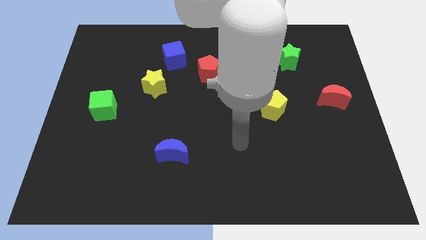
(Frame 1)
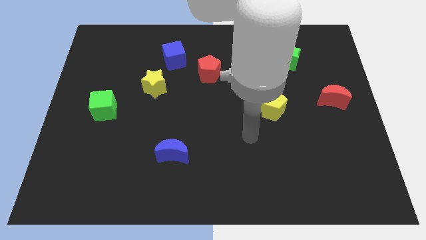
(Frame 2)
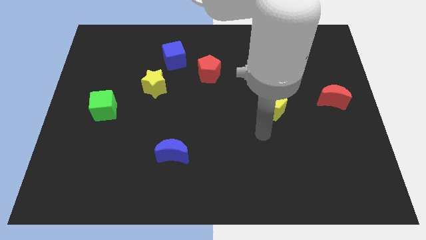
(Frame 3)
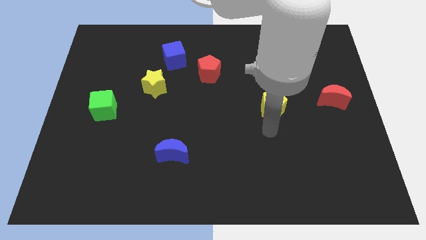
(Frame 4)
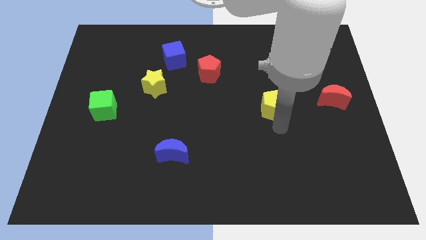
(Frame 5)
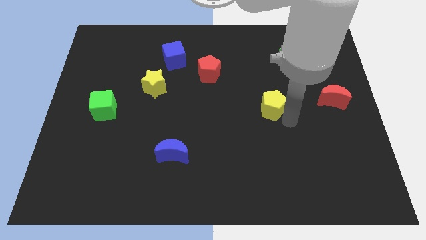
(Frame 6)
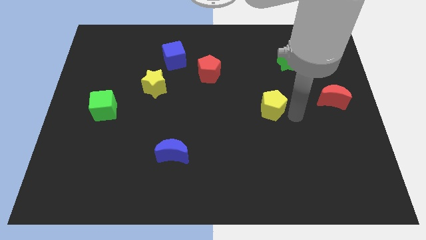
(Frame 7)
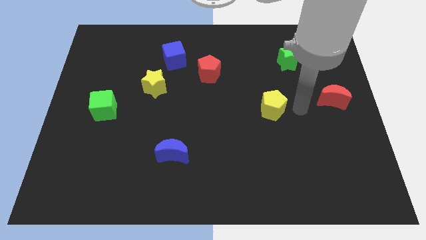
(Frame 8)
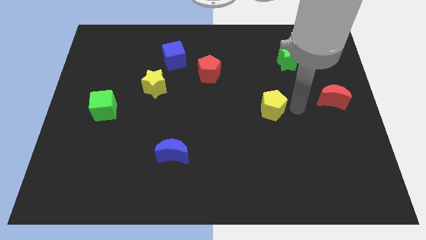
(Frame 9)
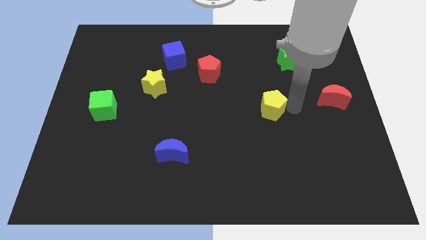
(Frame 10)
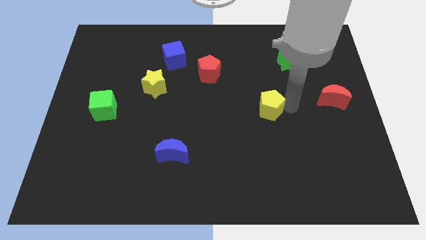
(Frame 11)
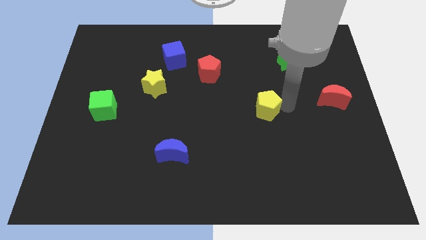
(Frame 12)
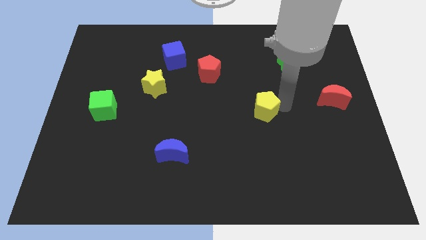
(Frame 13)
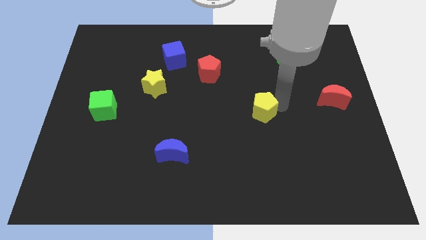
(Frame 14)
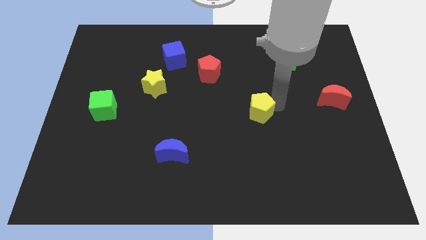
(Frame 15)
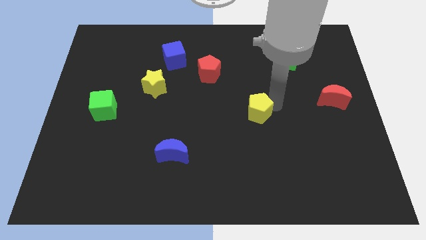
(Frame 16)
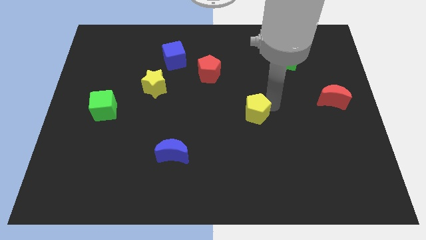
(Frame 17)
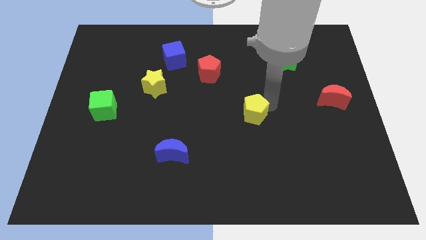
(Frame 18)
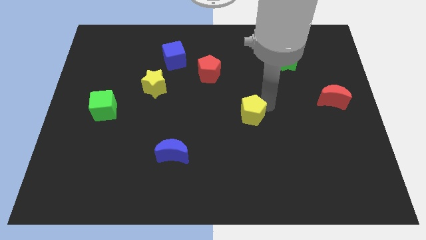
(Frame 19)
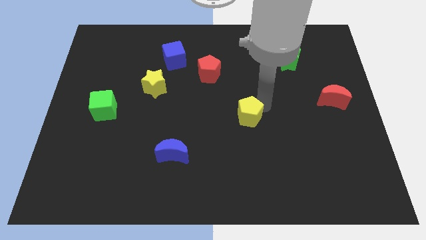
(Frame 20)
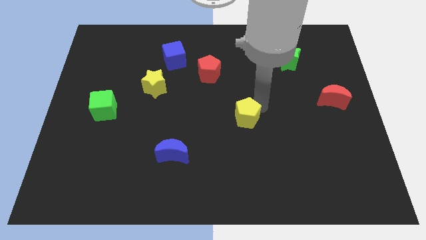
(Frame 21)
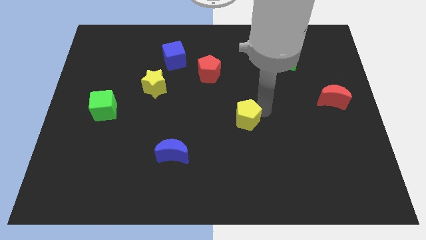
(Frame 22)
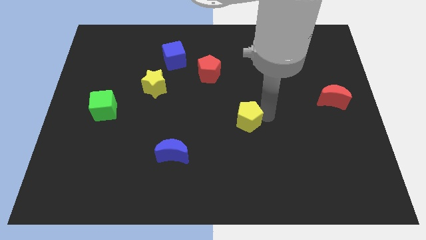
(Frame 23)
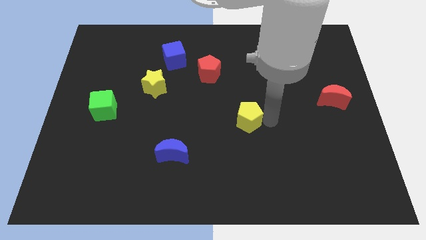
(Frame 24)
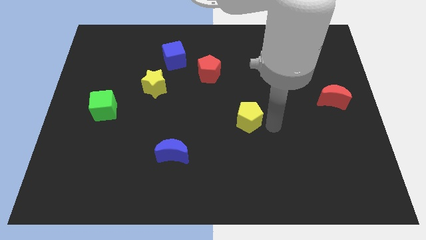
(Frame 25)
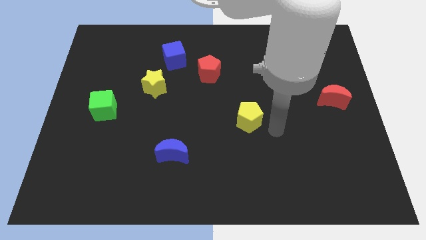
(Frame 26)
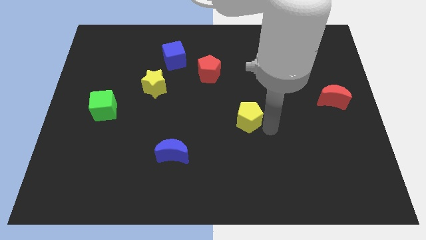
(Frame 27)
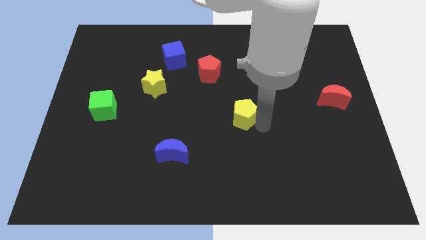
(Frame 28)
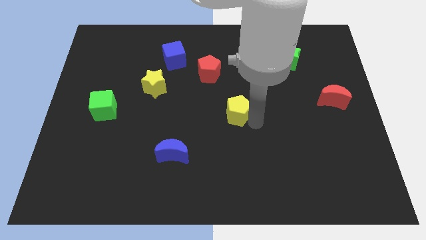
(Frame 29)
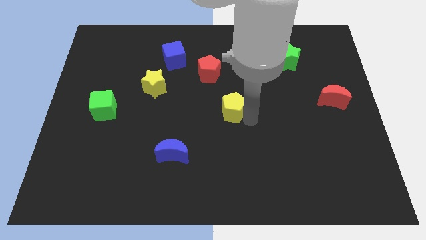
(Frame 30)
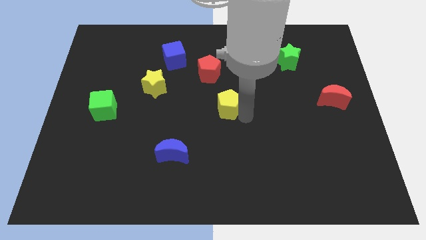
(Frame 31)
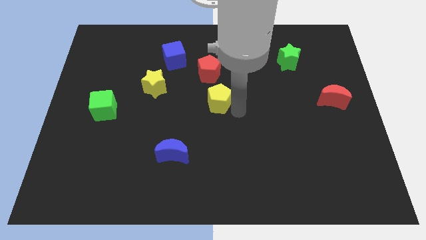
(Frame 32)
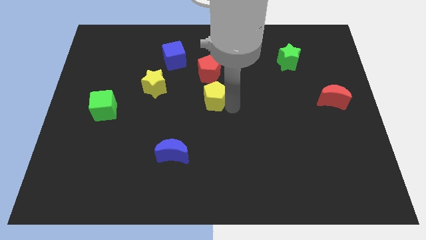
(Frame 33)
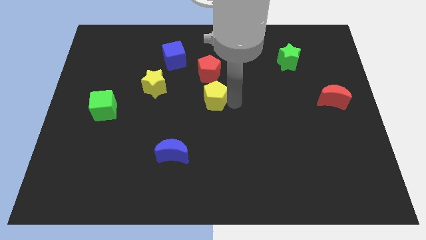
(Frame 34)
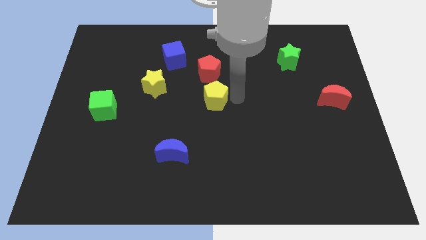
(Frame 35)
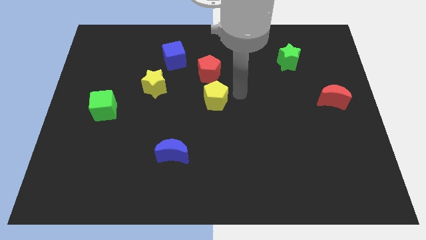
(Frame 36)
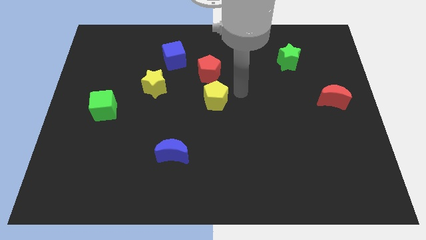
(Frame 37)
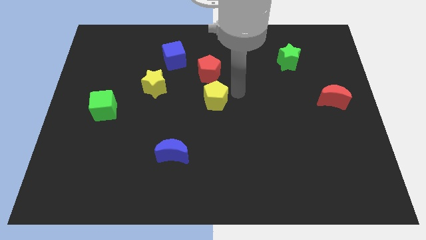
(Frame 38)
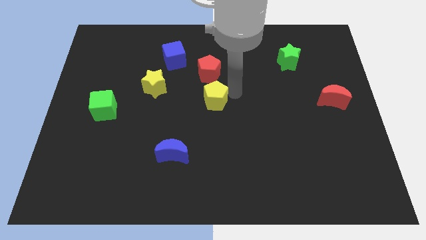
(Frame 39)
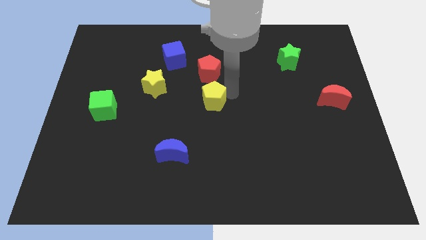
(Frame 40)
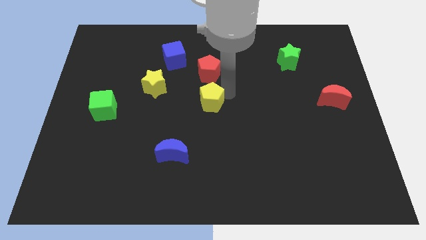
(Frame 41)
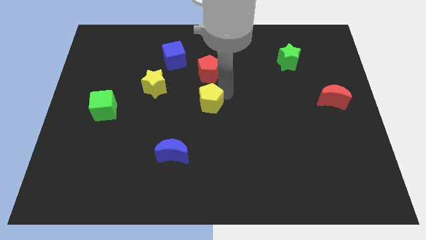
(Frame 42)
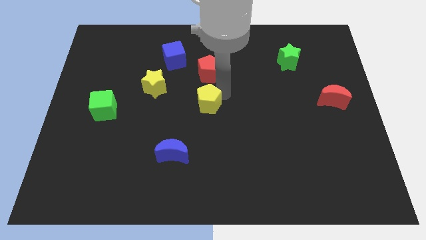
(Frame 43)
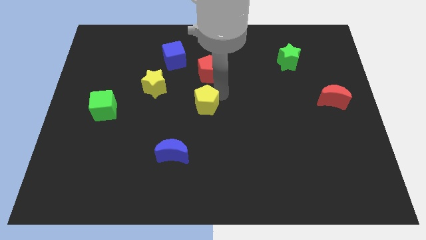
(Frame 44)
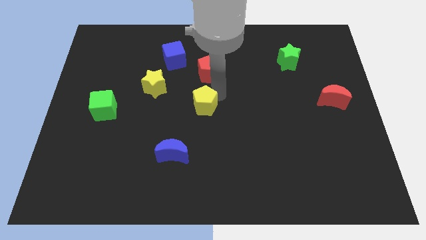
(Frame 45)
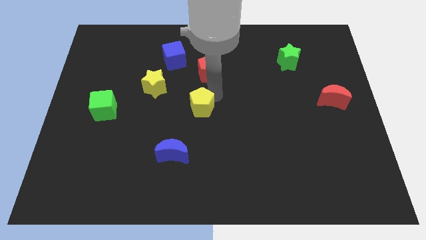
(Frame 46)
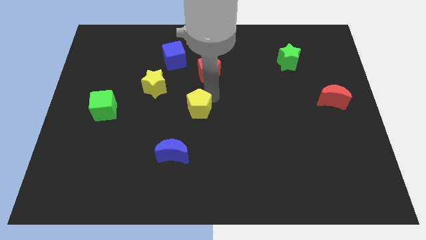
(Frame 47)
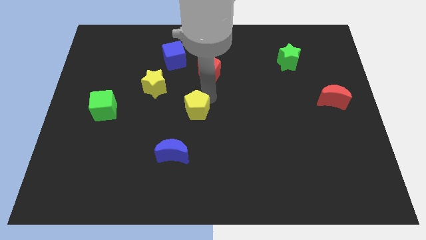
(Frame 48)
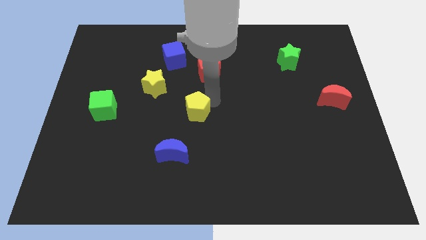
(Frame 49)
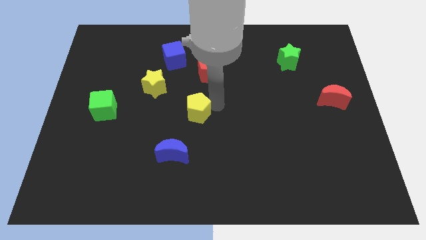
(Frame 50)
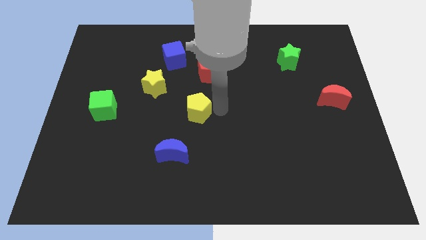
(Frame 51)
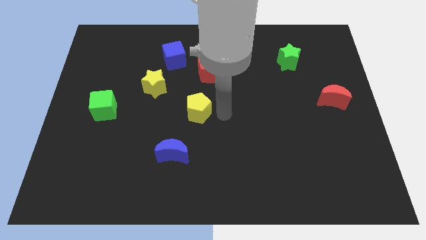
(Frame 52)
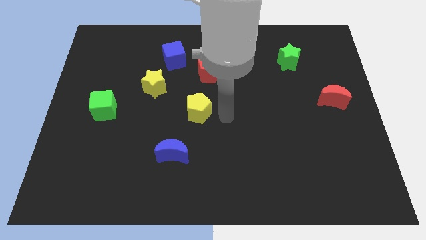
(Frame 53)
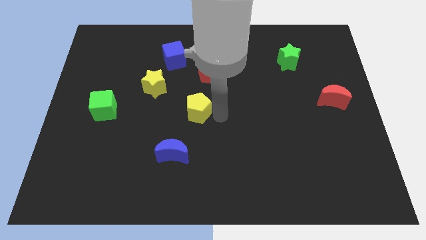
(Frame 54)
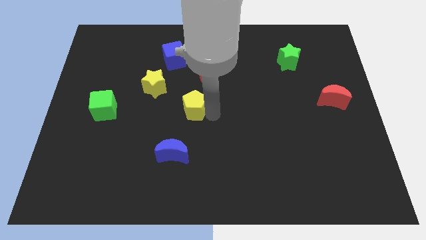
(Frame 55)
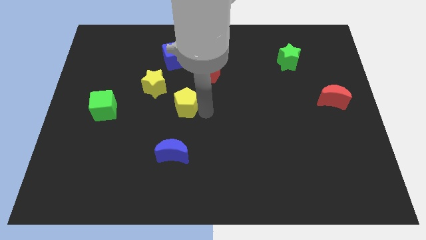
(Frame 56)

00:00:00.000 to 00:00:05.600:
slide the yellow pentagon left

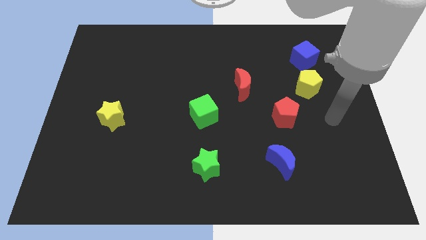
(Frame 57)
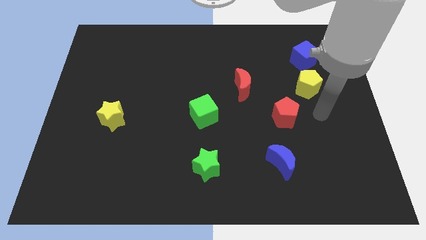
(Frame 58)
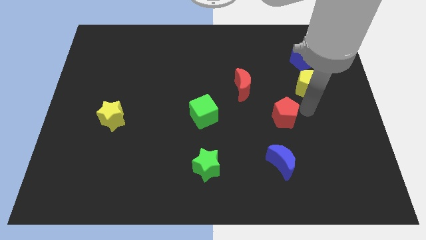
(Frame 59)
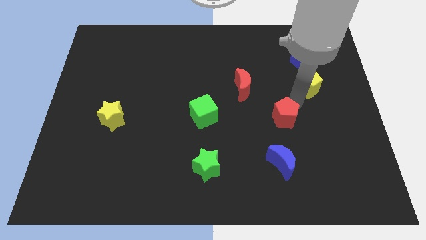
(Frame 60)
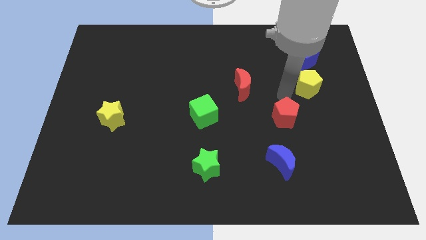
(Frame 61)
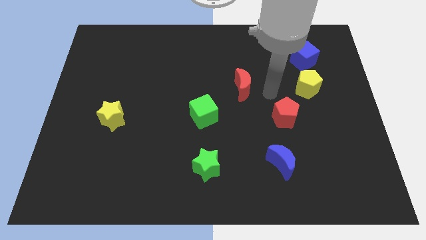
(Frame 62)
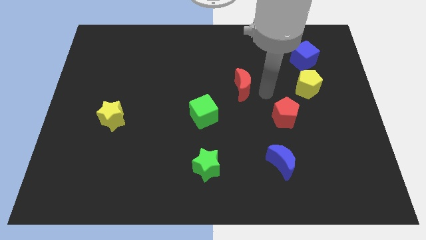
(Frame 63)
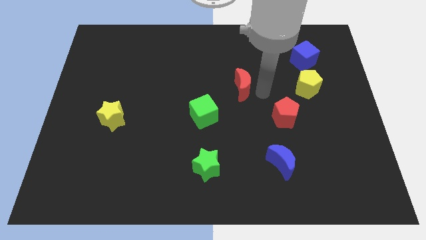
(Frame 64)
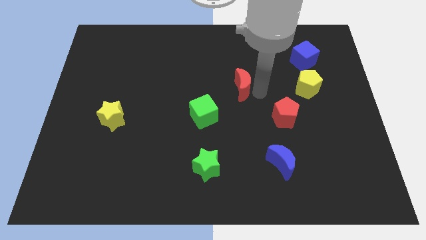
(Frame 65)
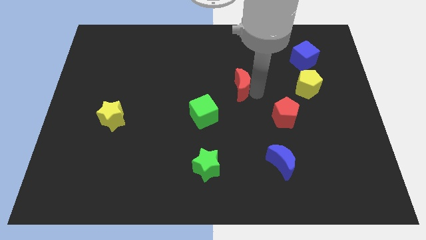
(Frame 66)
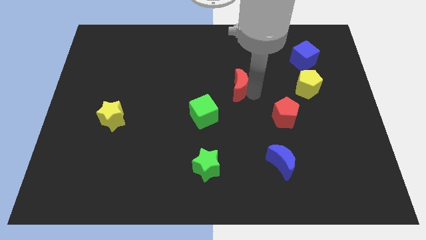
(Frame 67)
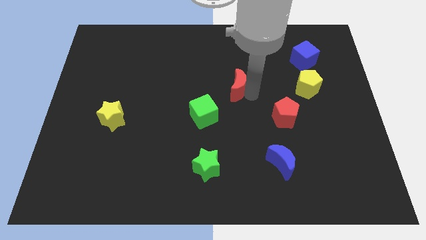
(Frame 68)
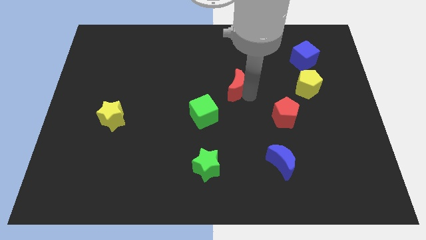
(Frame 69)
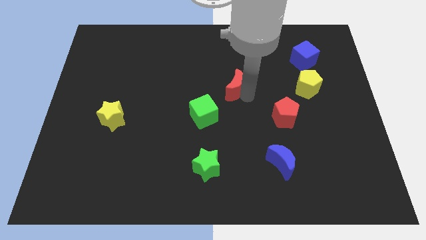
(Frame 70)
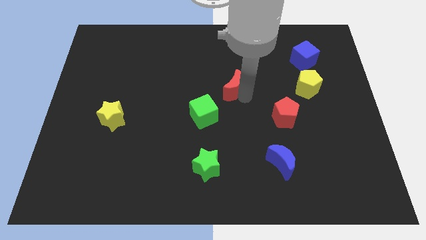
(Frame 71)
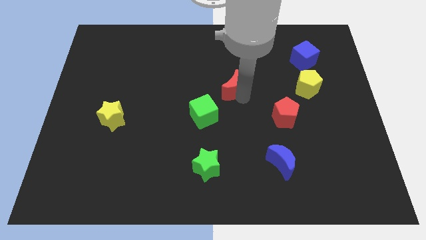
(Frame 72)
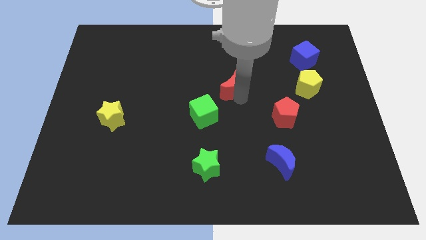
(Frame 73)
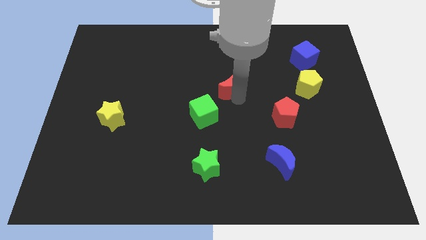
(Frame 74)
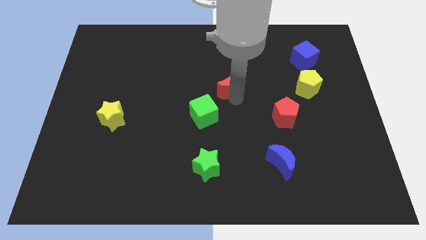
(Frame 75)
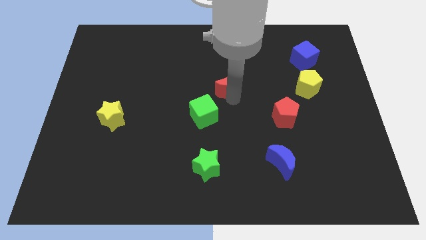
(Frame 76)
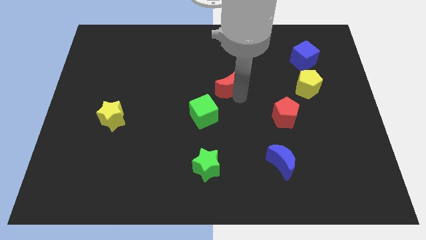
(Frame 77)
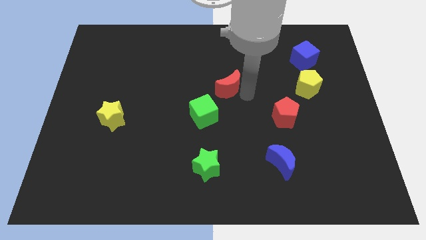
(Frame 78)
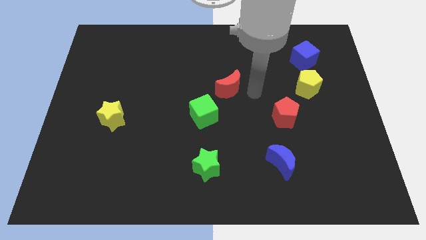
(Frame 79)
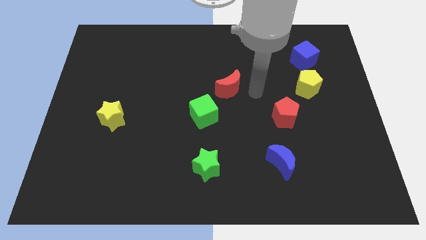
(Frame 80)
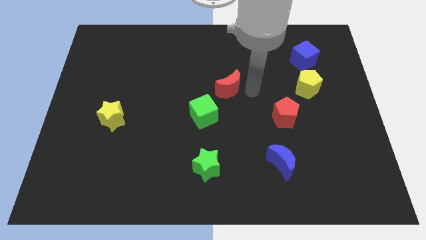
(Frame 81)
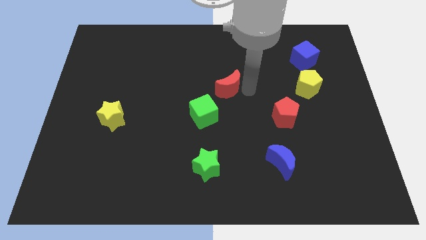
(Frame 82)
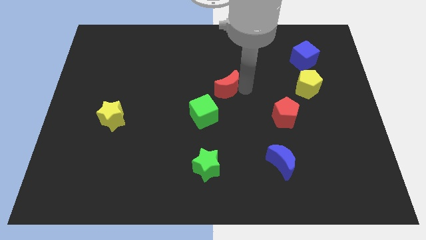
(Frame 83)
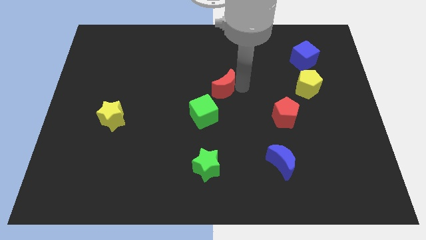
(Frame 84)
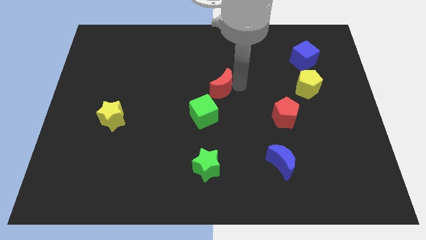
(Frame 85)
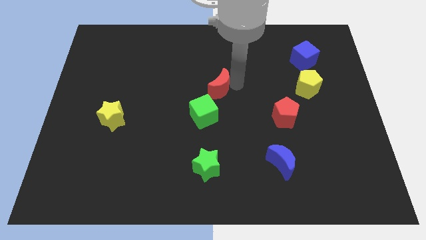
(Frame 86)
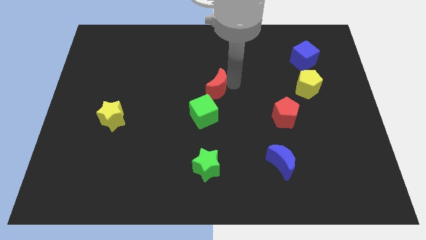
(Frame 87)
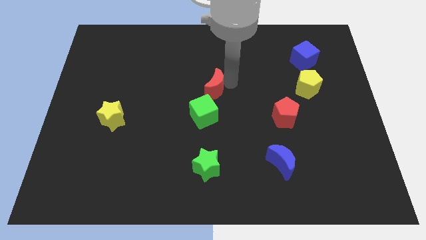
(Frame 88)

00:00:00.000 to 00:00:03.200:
slide the red moon to the left slightly
